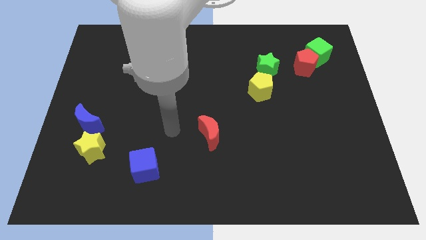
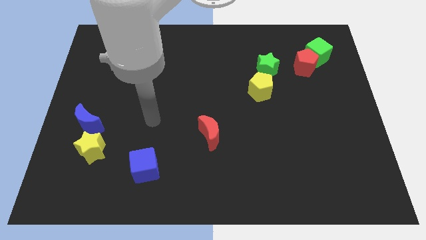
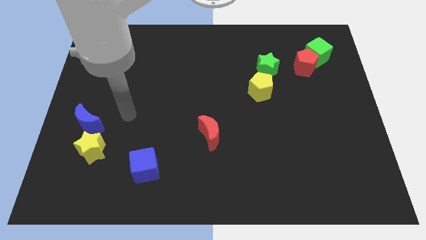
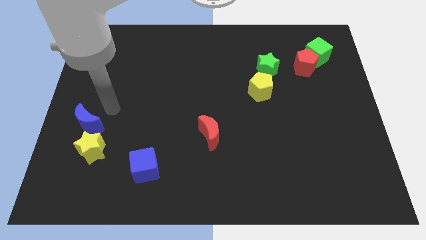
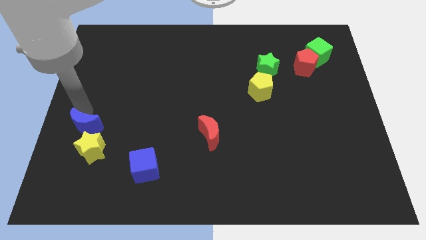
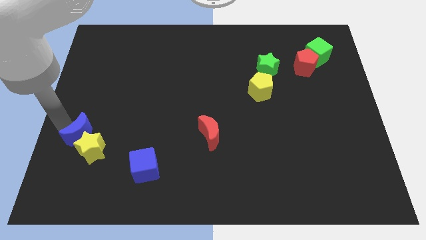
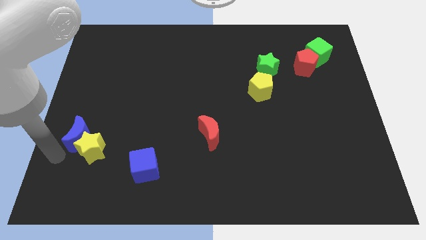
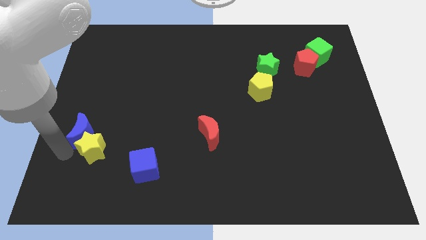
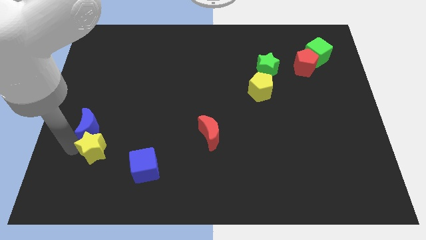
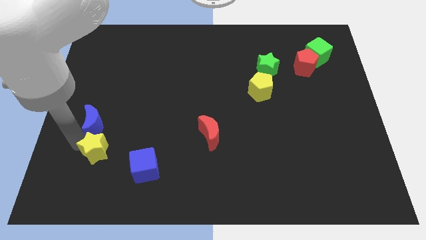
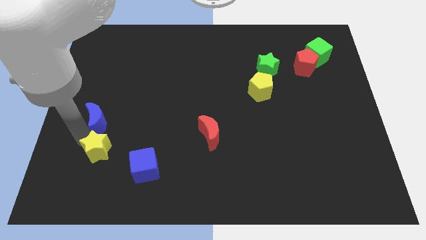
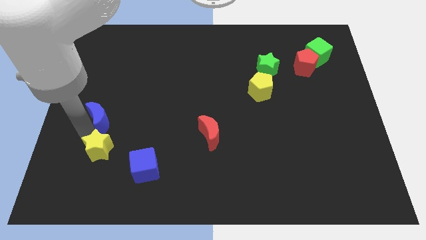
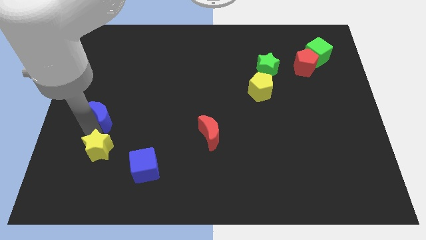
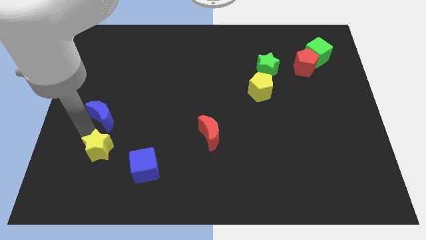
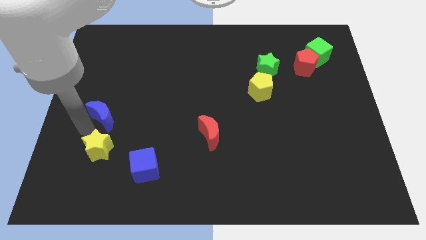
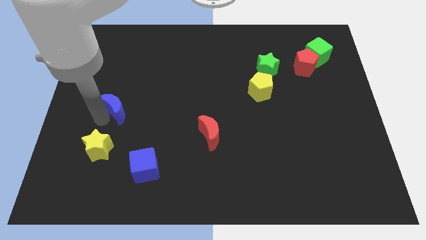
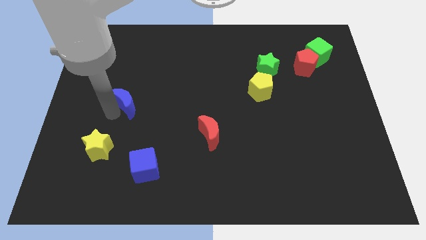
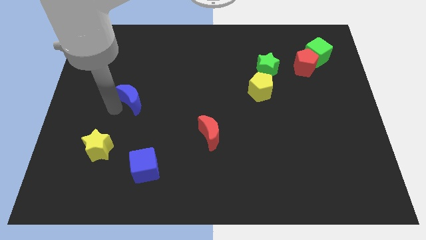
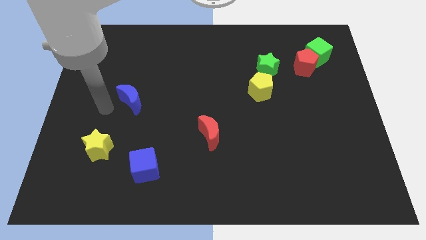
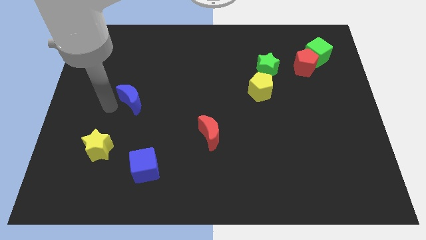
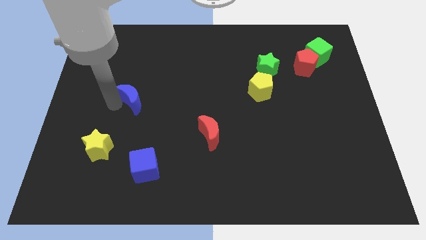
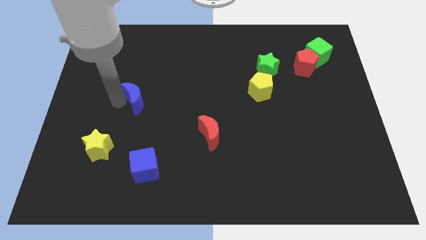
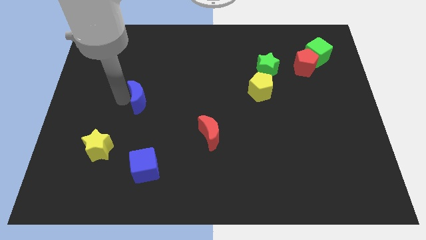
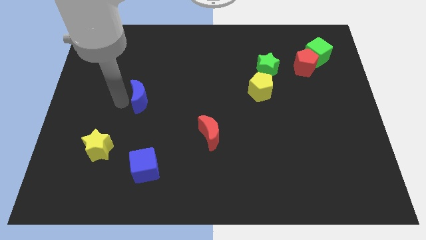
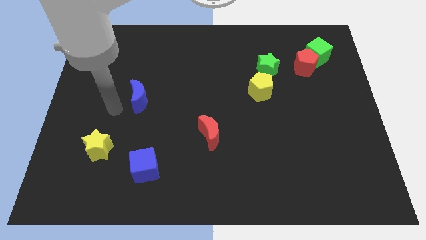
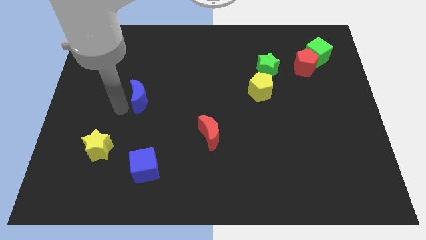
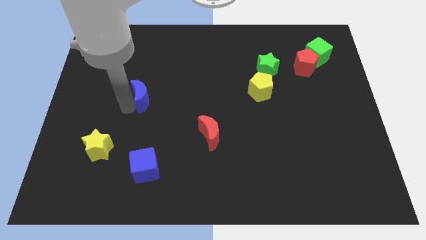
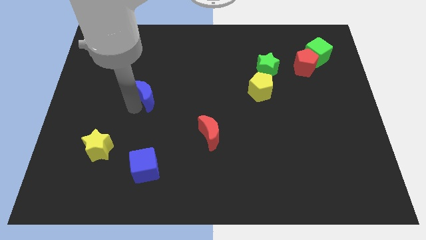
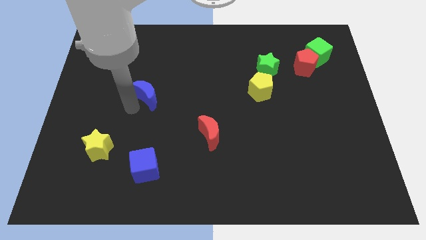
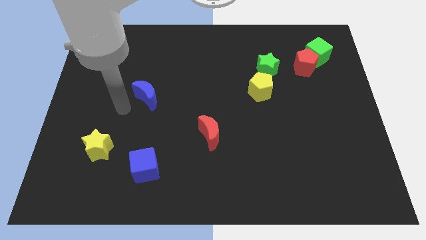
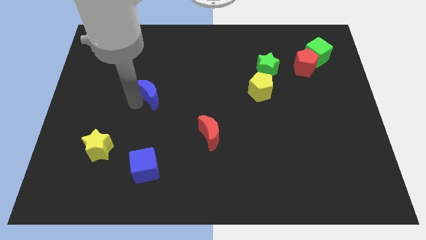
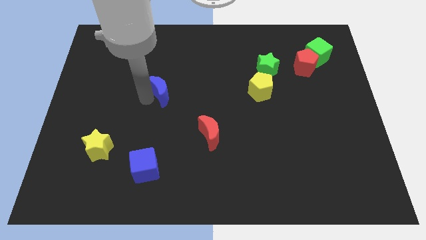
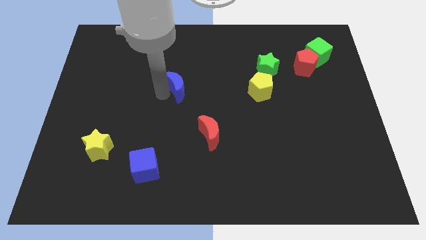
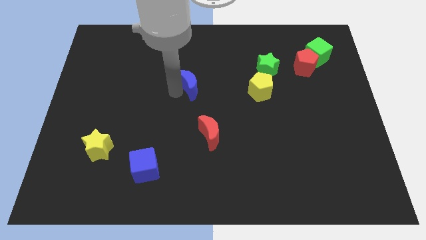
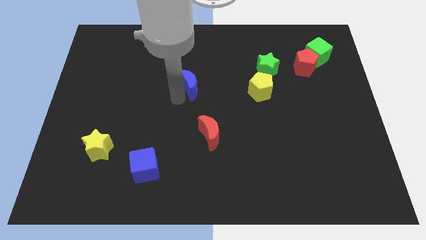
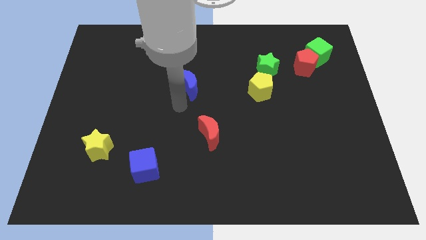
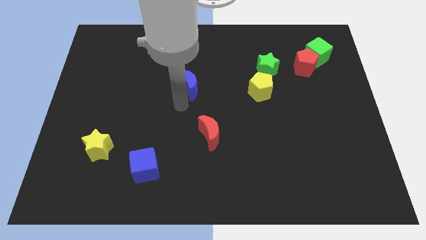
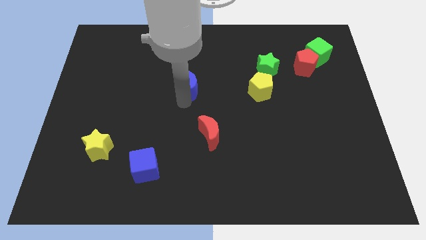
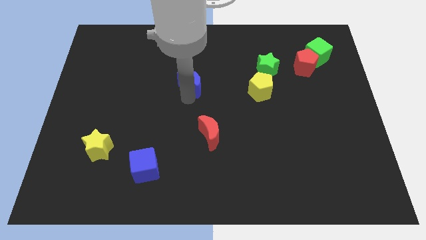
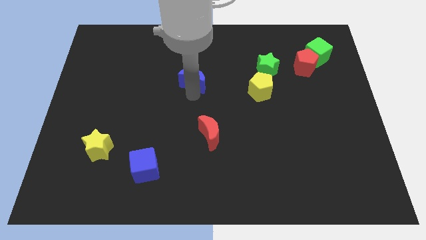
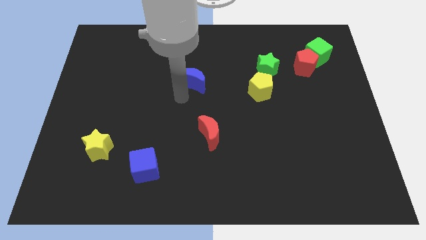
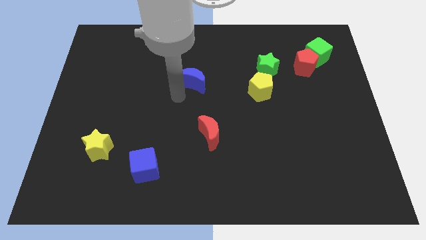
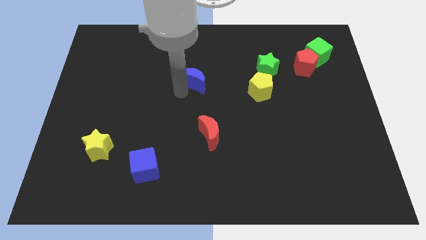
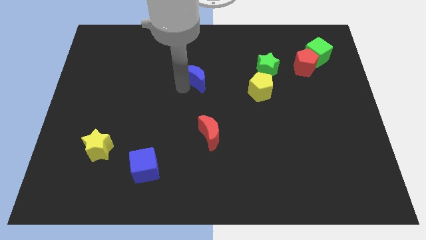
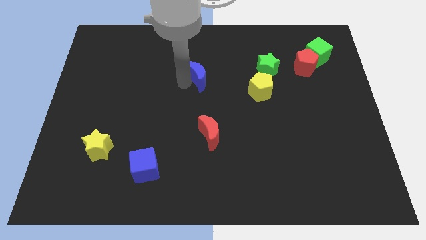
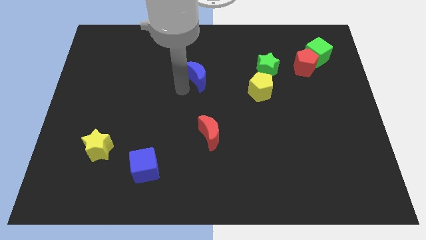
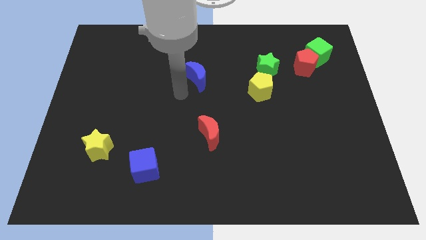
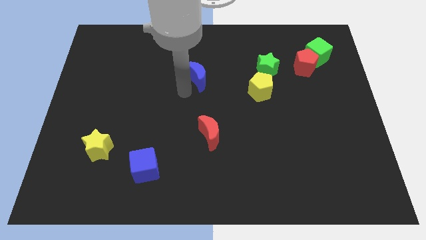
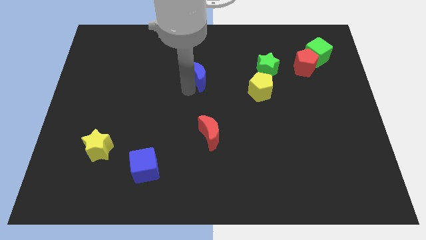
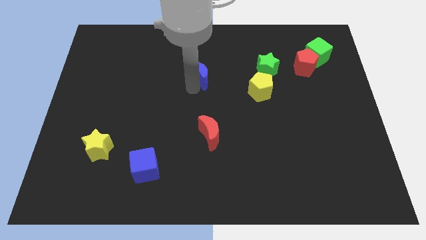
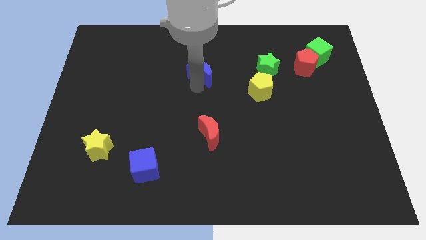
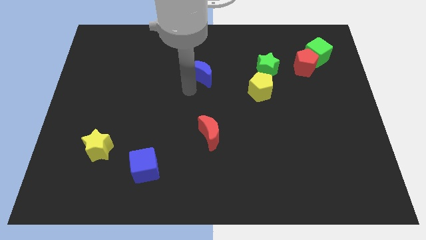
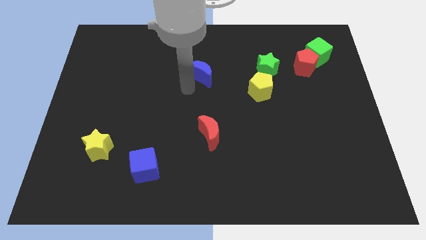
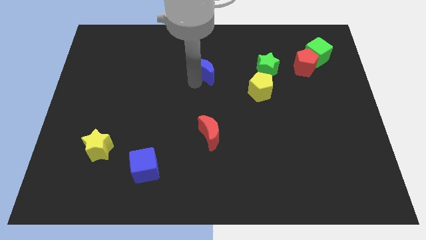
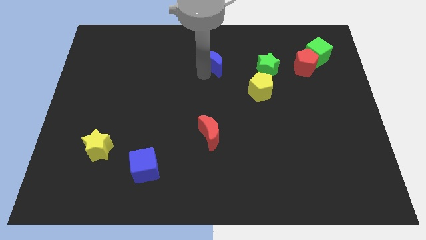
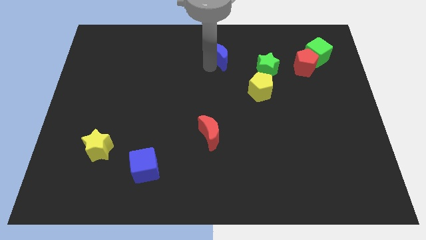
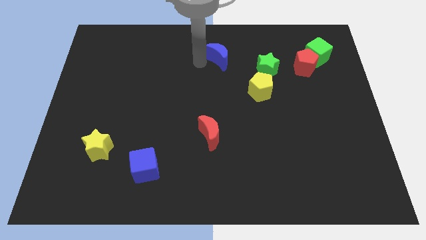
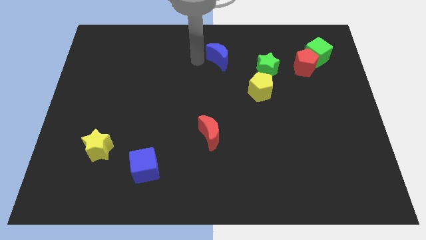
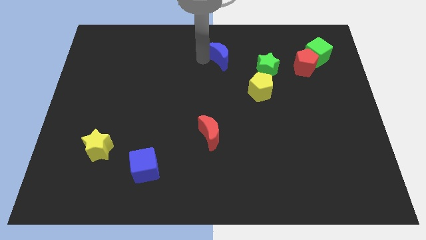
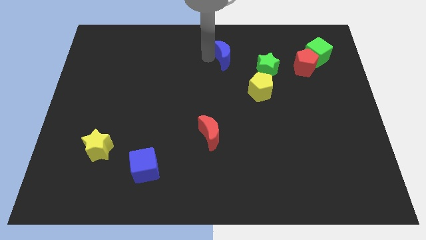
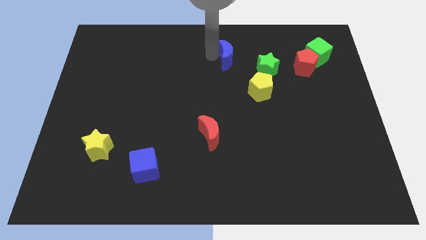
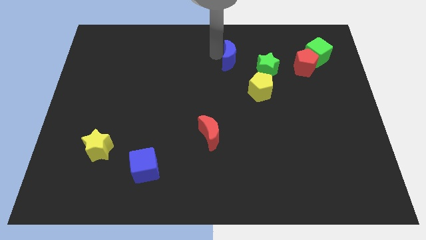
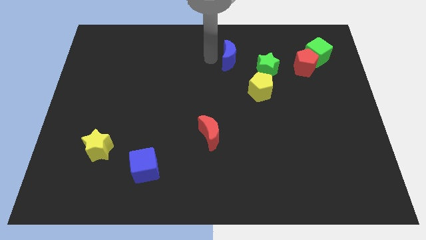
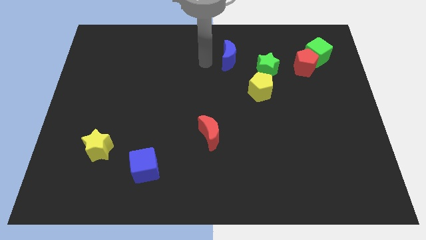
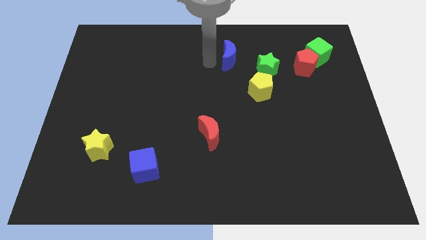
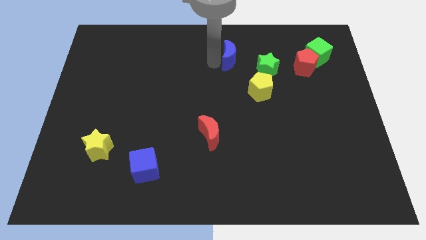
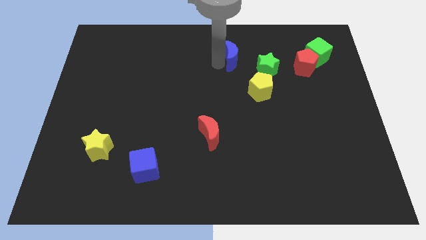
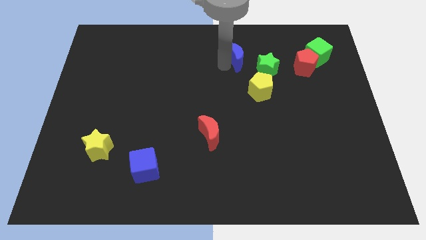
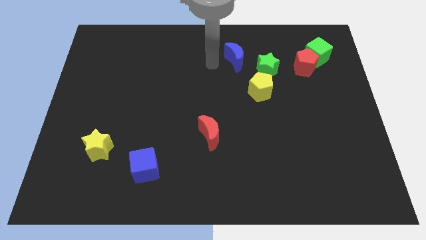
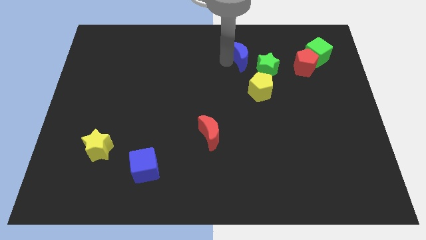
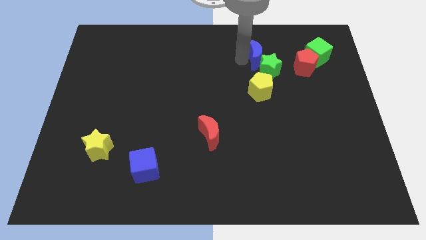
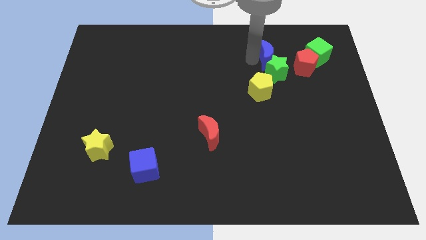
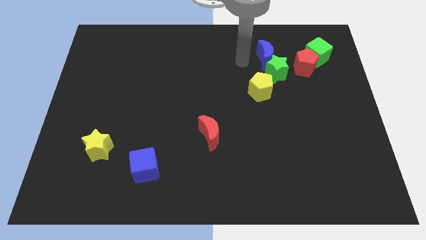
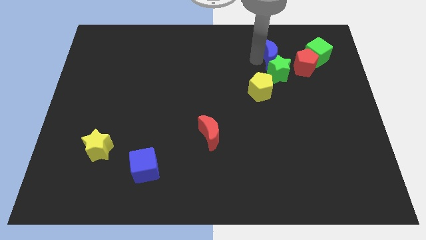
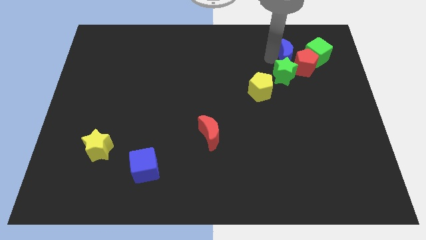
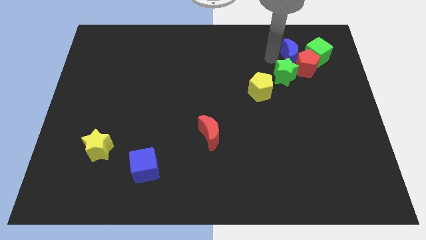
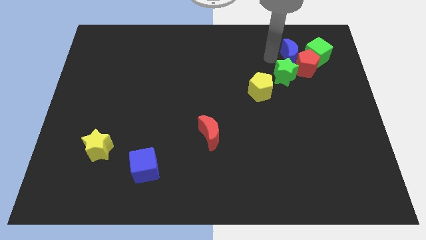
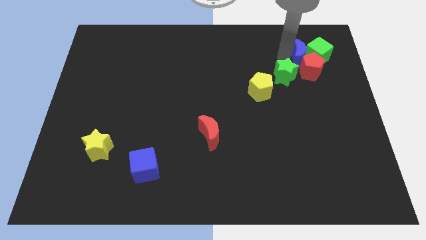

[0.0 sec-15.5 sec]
move the blue moon towards the green cube
